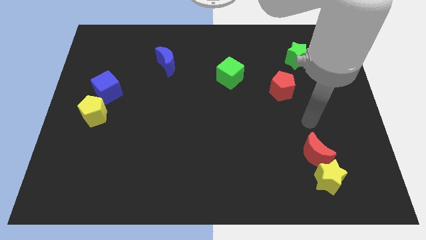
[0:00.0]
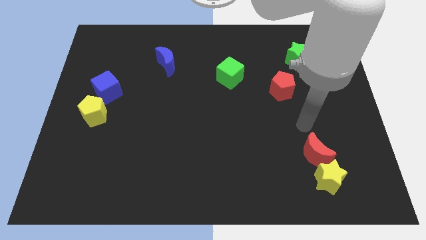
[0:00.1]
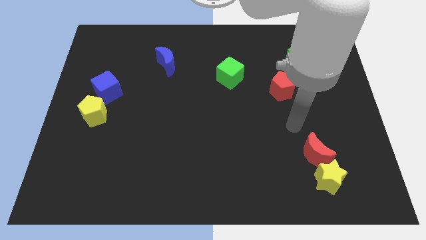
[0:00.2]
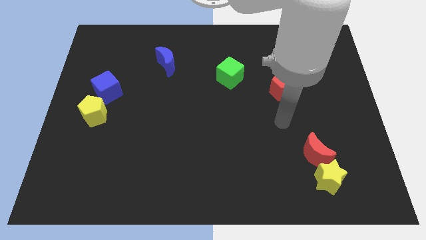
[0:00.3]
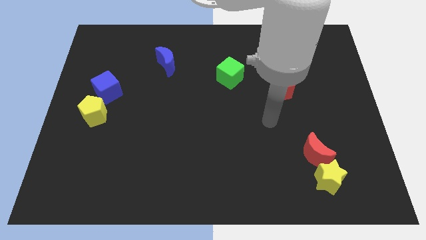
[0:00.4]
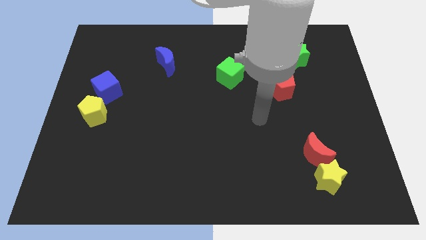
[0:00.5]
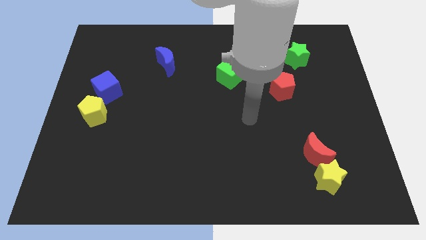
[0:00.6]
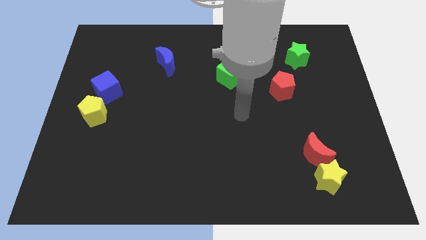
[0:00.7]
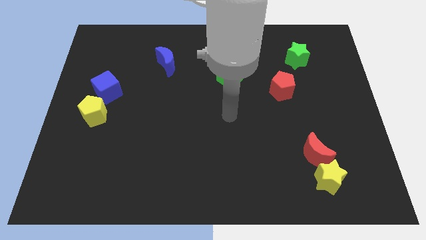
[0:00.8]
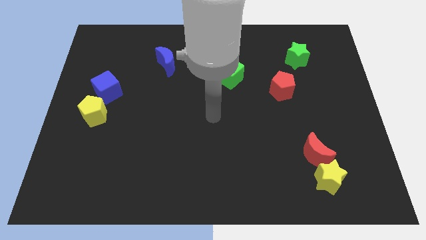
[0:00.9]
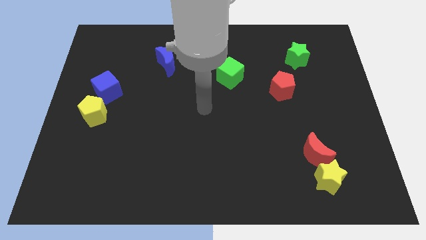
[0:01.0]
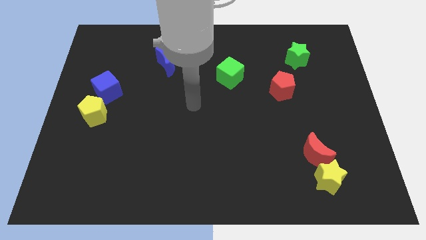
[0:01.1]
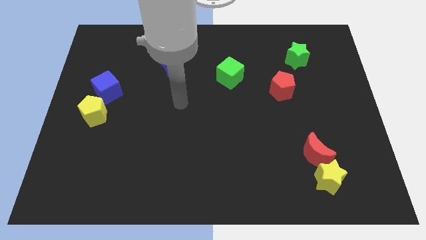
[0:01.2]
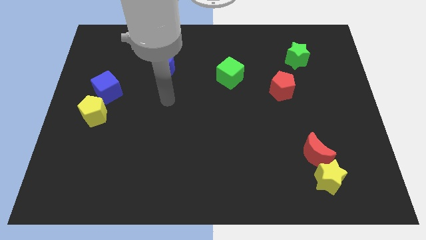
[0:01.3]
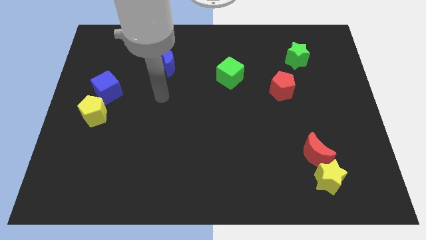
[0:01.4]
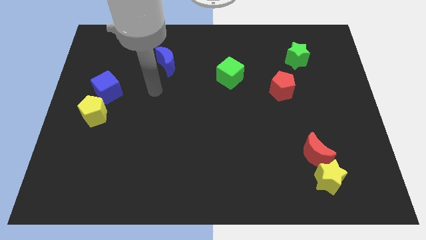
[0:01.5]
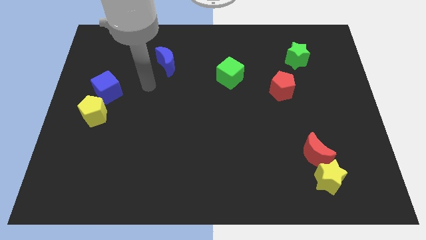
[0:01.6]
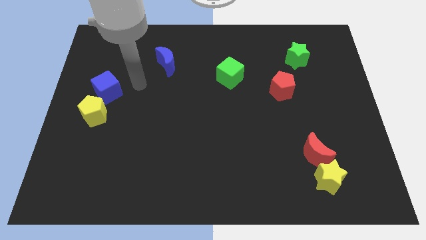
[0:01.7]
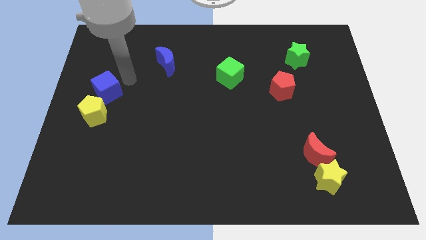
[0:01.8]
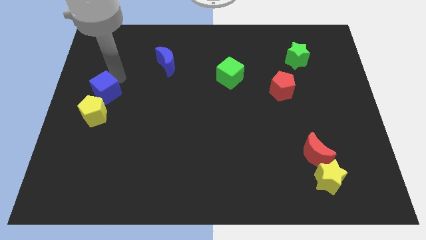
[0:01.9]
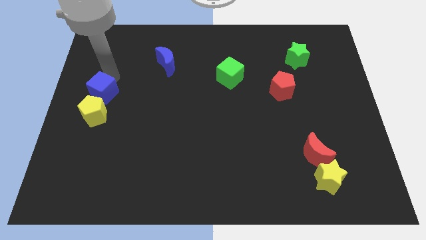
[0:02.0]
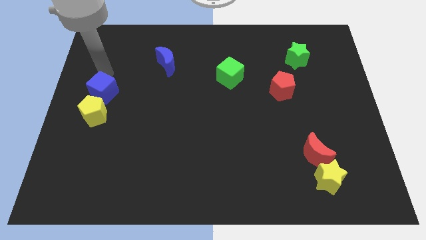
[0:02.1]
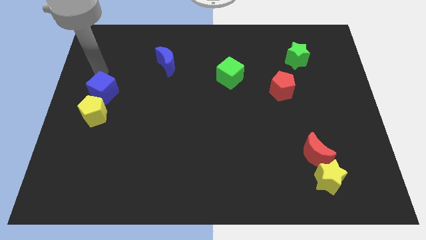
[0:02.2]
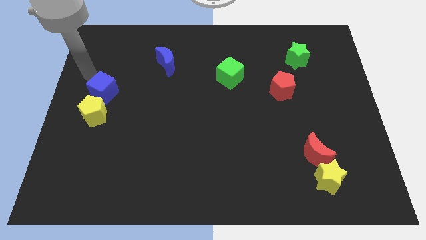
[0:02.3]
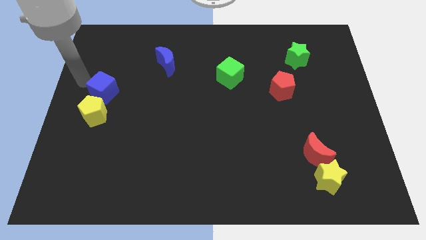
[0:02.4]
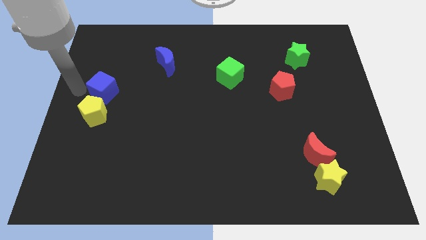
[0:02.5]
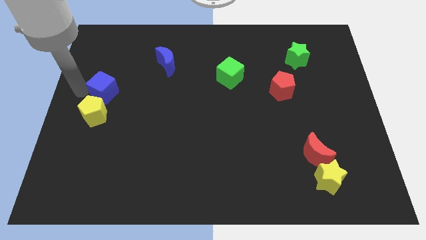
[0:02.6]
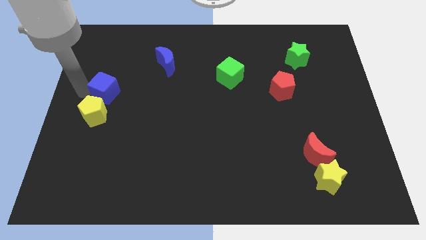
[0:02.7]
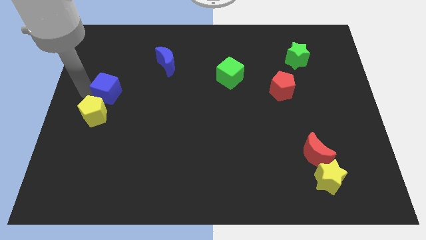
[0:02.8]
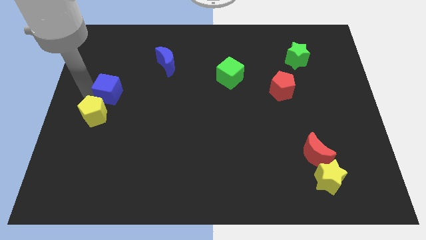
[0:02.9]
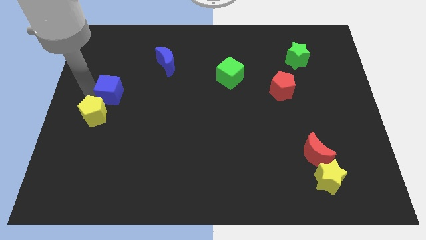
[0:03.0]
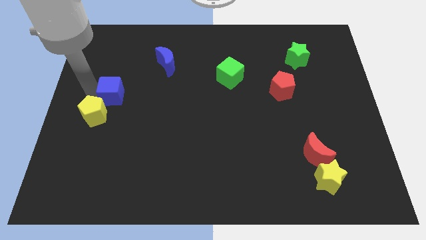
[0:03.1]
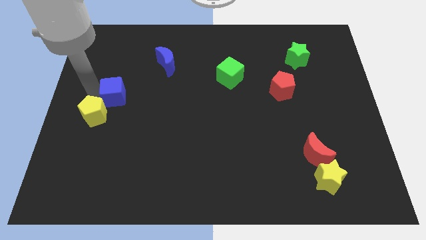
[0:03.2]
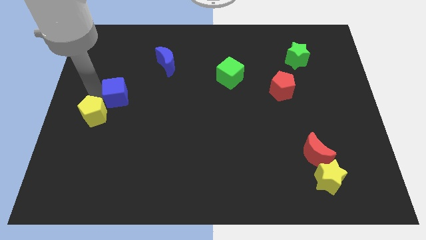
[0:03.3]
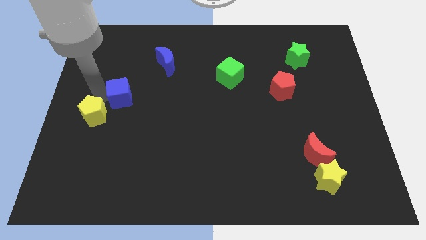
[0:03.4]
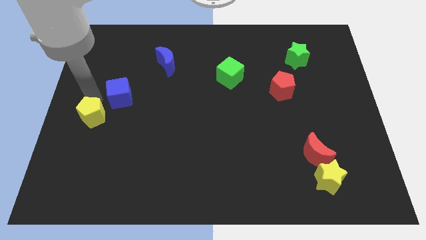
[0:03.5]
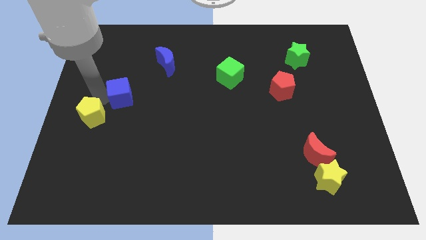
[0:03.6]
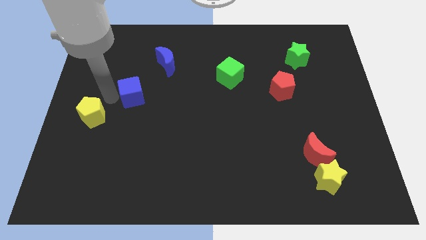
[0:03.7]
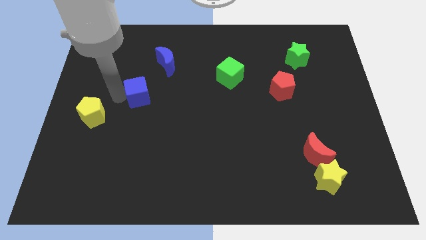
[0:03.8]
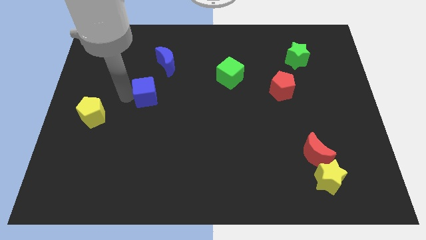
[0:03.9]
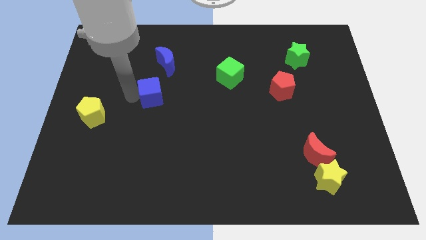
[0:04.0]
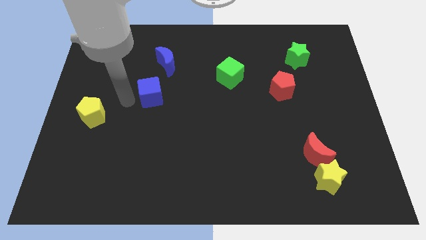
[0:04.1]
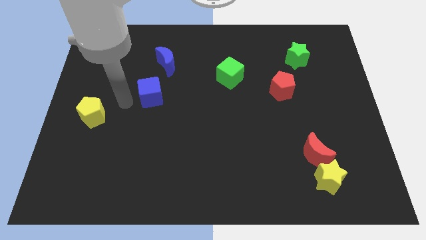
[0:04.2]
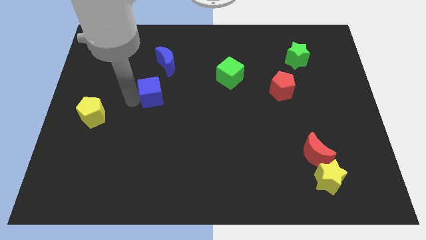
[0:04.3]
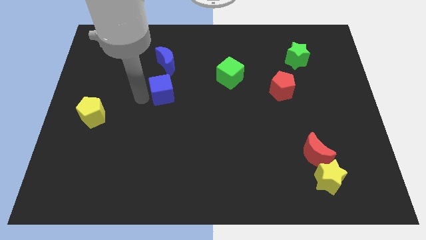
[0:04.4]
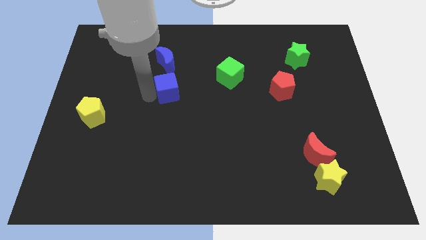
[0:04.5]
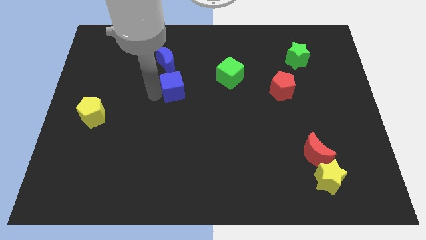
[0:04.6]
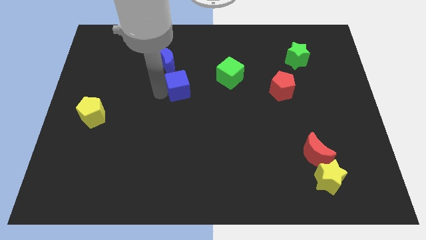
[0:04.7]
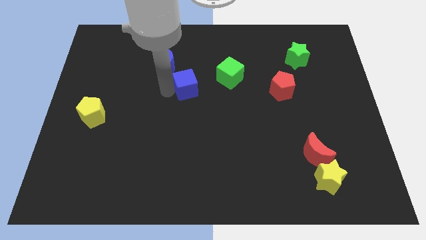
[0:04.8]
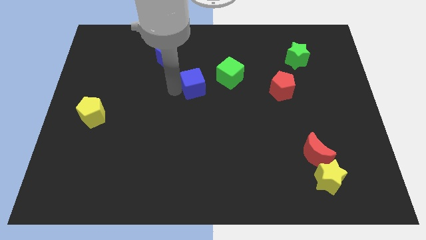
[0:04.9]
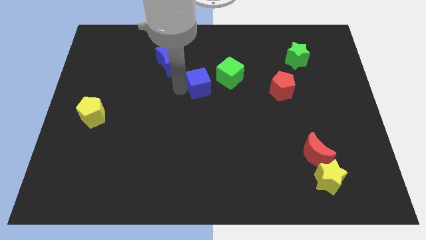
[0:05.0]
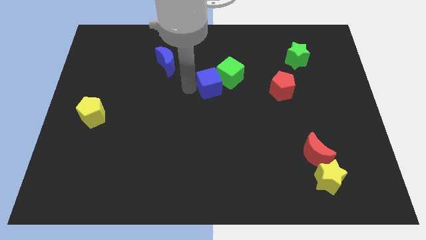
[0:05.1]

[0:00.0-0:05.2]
slide the blue cube next to the green cube
